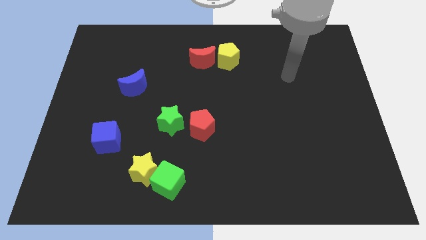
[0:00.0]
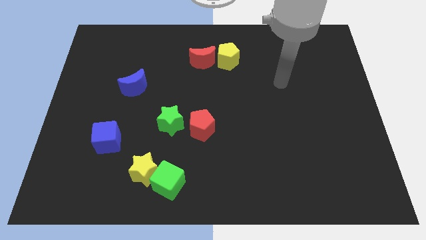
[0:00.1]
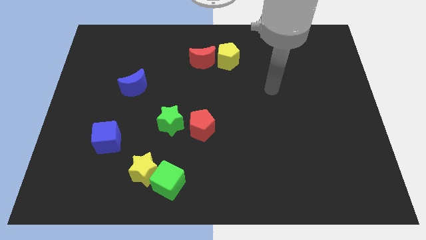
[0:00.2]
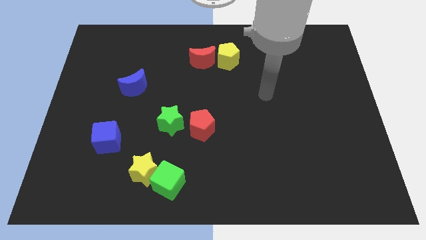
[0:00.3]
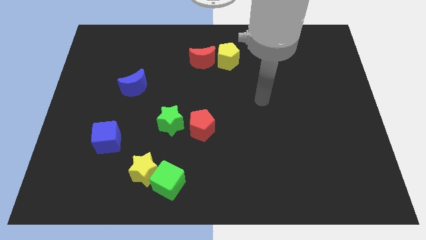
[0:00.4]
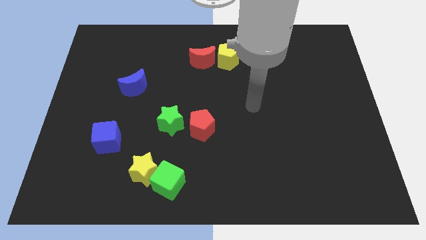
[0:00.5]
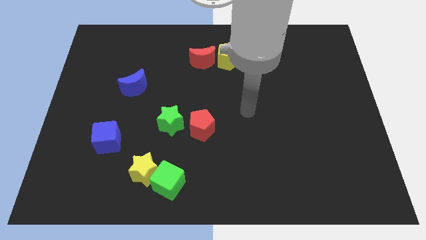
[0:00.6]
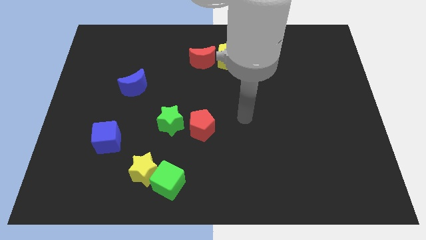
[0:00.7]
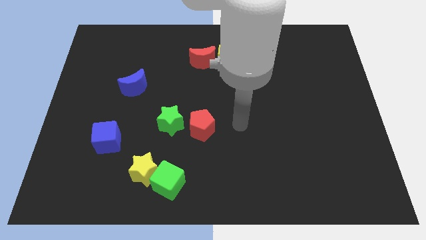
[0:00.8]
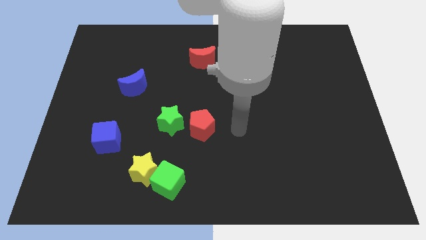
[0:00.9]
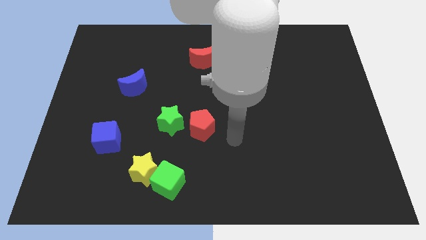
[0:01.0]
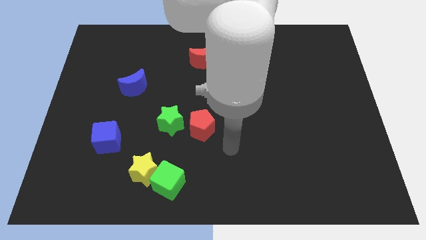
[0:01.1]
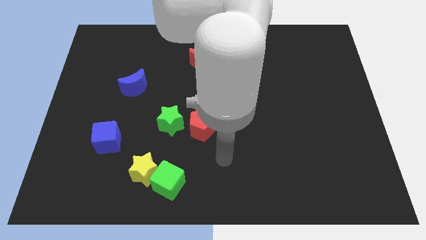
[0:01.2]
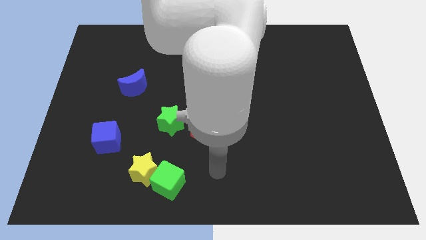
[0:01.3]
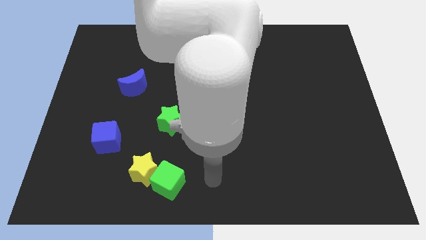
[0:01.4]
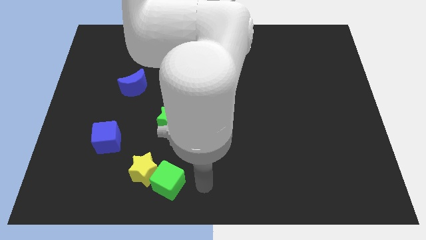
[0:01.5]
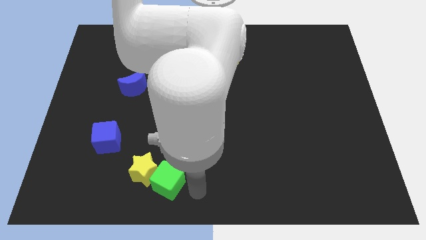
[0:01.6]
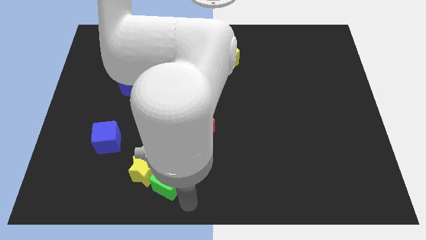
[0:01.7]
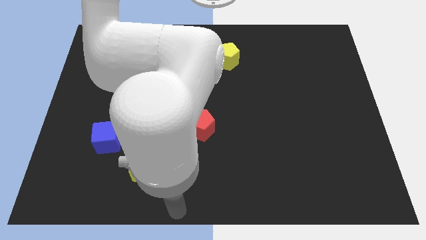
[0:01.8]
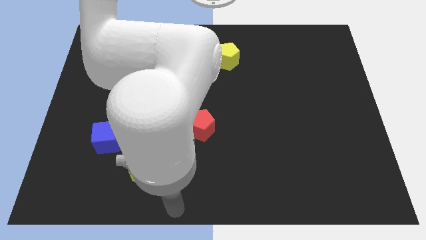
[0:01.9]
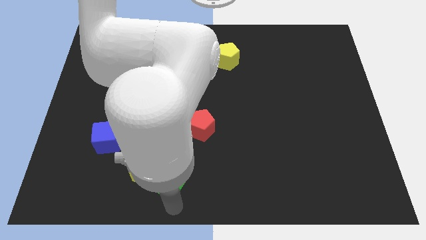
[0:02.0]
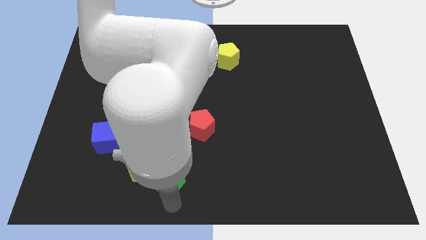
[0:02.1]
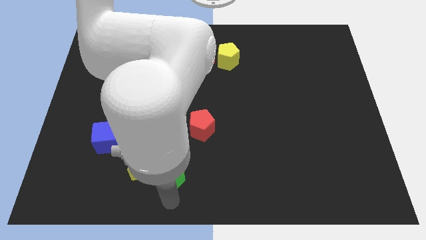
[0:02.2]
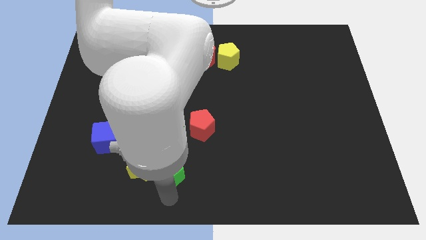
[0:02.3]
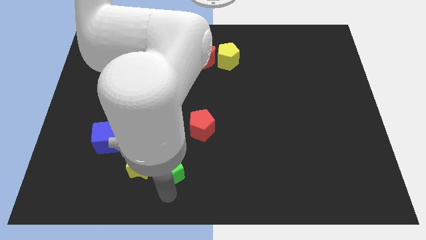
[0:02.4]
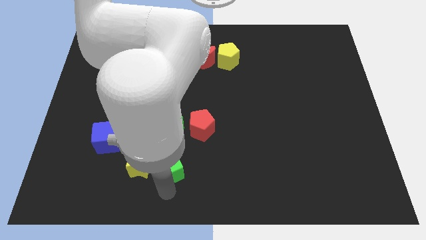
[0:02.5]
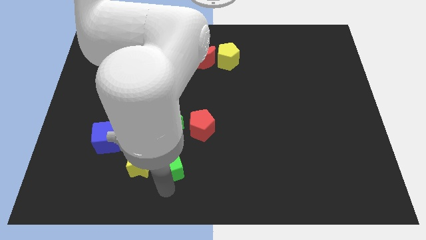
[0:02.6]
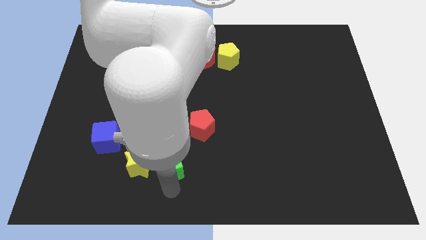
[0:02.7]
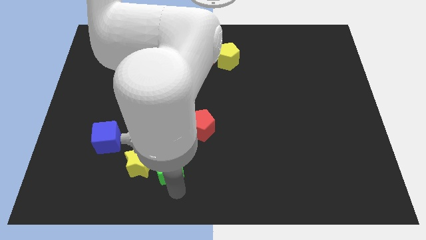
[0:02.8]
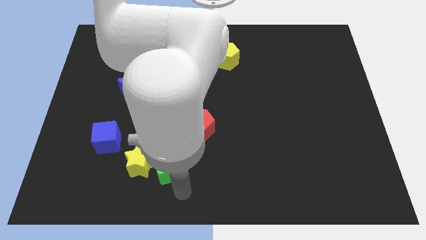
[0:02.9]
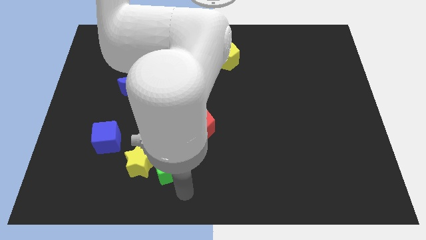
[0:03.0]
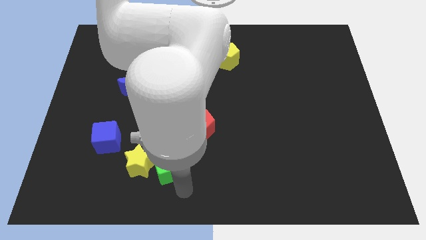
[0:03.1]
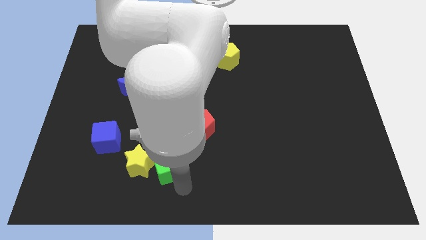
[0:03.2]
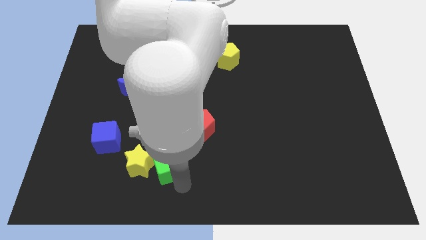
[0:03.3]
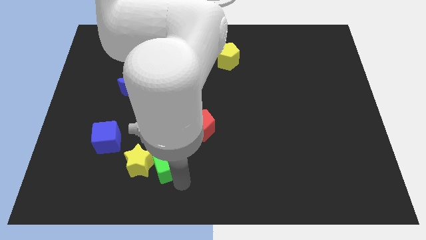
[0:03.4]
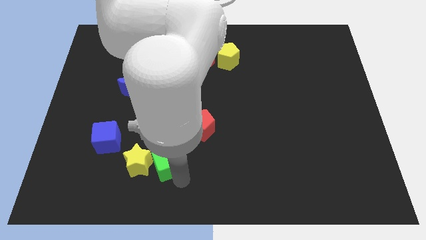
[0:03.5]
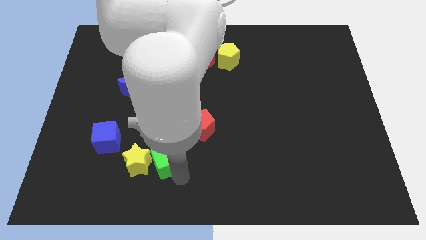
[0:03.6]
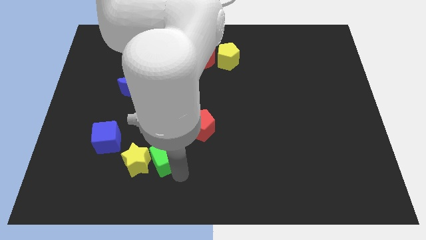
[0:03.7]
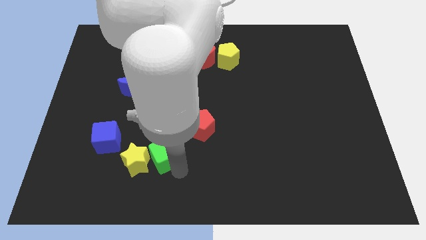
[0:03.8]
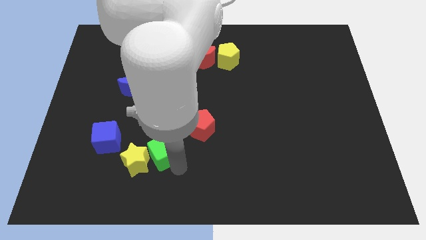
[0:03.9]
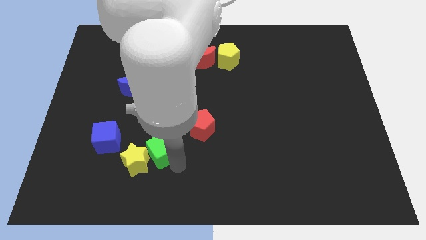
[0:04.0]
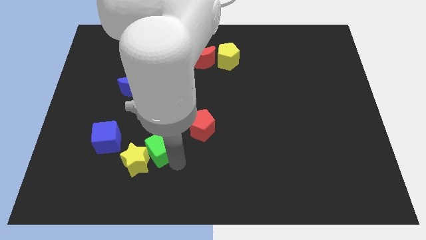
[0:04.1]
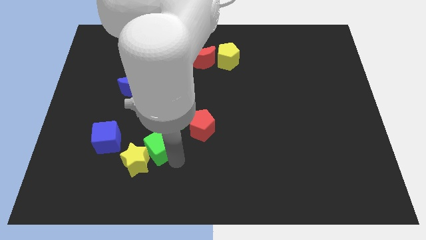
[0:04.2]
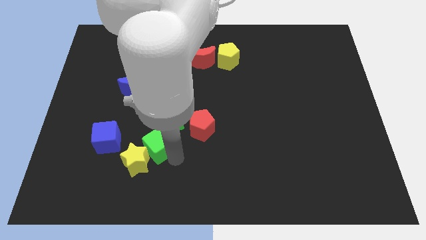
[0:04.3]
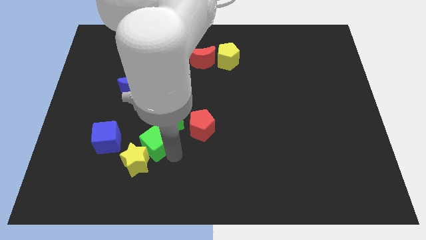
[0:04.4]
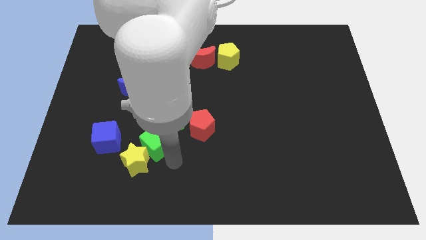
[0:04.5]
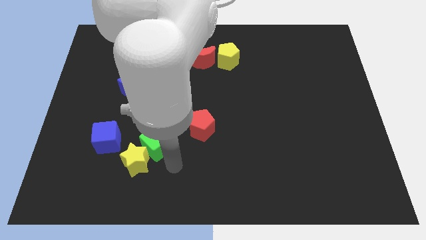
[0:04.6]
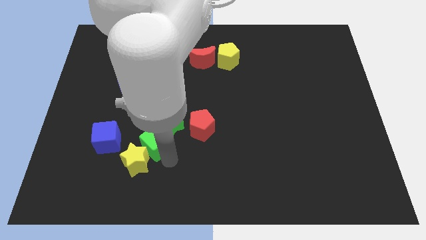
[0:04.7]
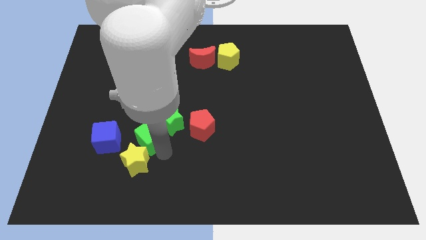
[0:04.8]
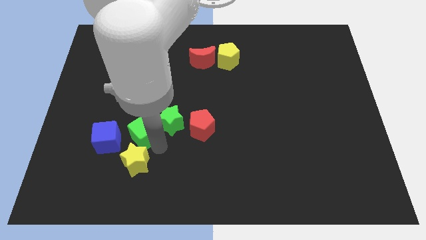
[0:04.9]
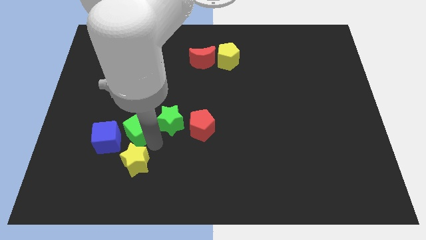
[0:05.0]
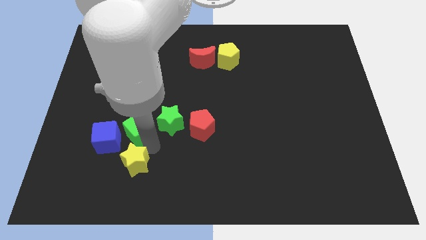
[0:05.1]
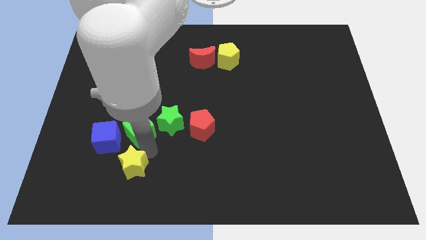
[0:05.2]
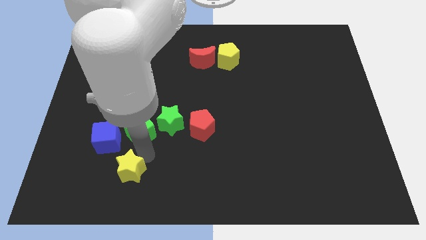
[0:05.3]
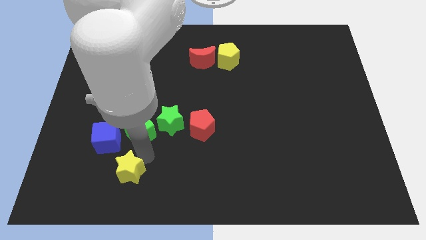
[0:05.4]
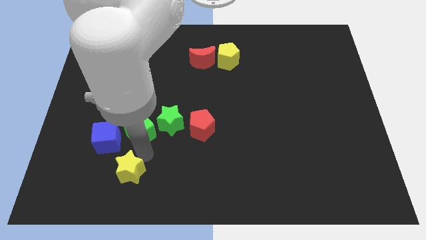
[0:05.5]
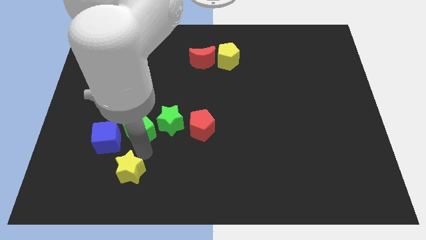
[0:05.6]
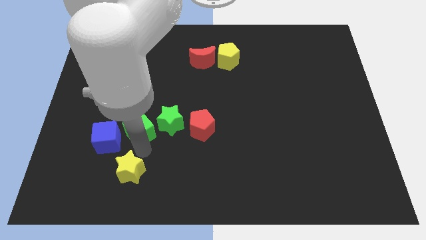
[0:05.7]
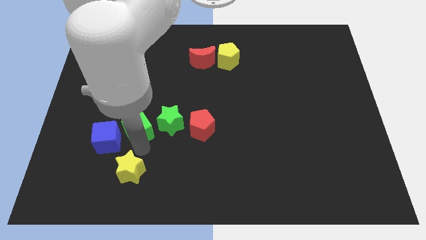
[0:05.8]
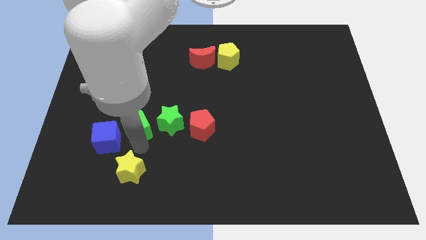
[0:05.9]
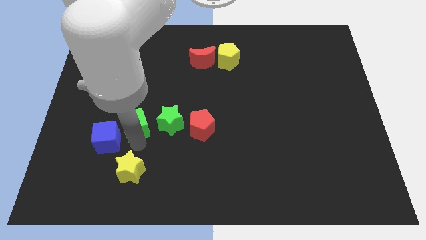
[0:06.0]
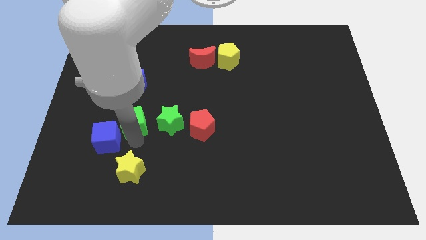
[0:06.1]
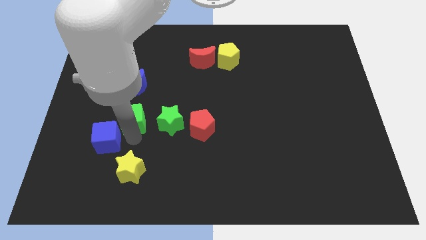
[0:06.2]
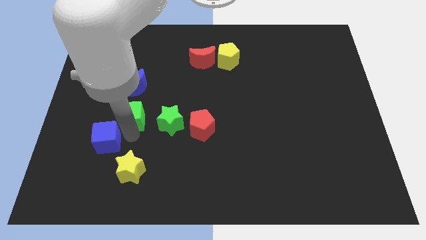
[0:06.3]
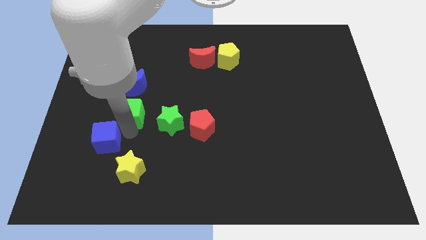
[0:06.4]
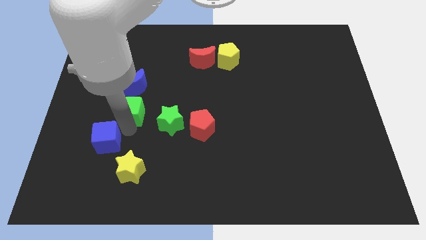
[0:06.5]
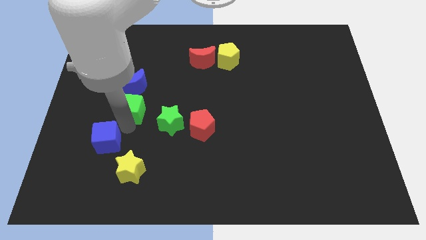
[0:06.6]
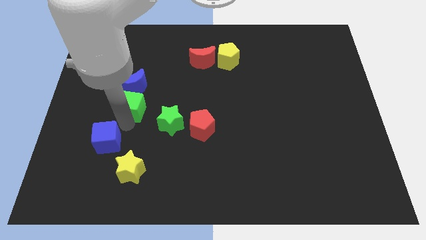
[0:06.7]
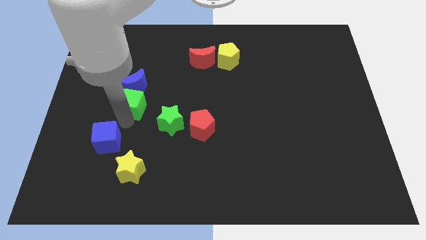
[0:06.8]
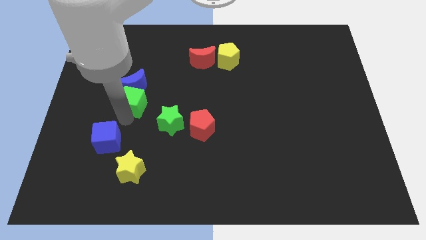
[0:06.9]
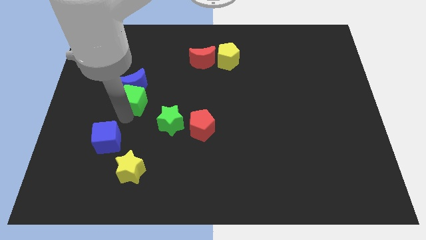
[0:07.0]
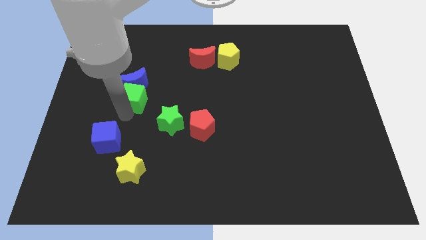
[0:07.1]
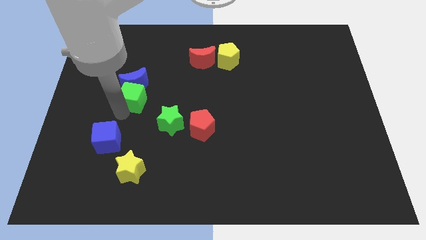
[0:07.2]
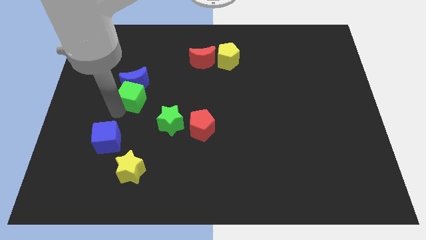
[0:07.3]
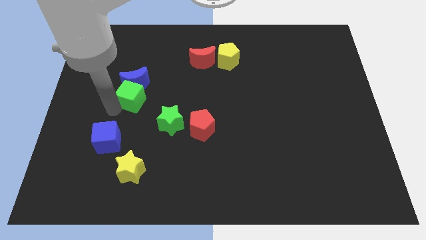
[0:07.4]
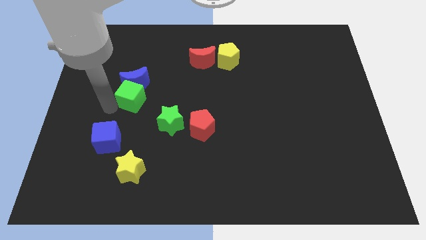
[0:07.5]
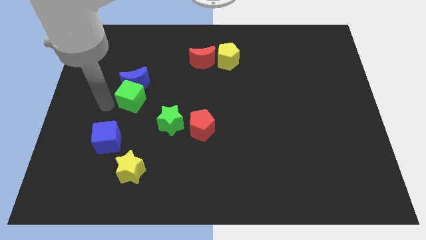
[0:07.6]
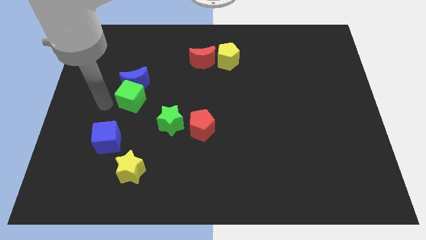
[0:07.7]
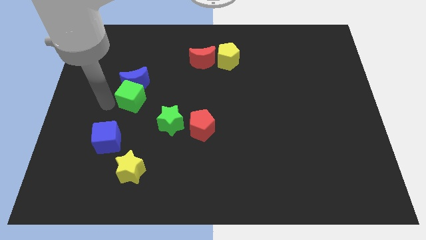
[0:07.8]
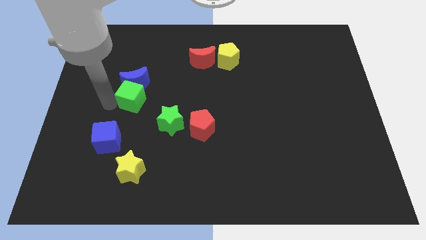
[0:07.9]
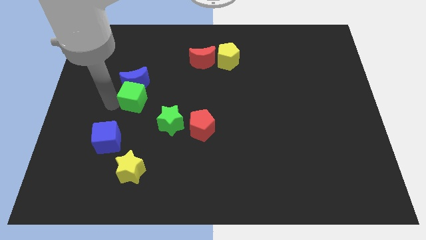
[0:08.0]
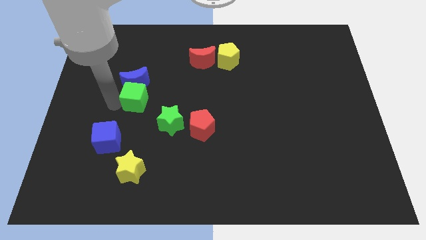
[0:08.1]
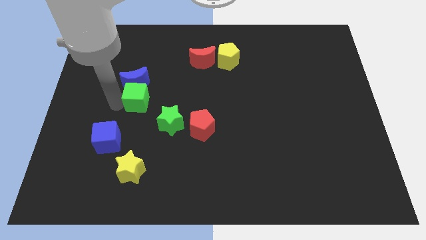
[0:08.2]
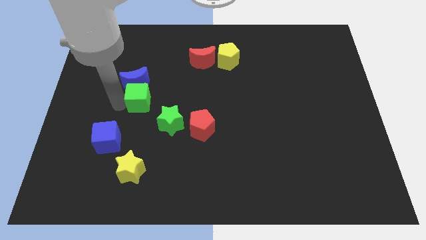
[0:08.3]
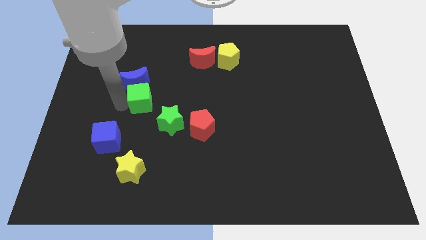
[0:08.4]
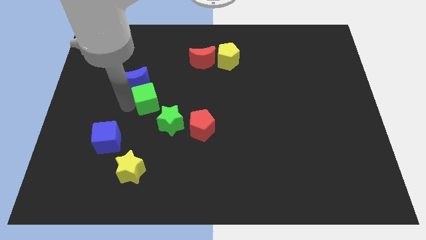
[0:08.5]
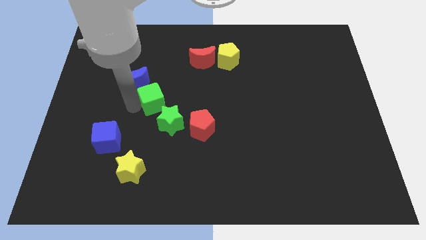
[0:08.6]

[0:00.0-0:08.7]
move the green cube up
